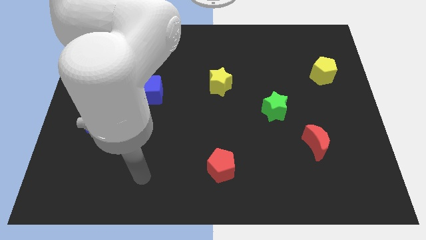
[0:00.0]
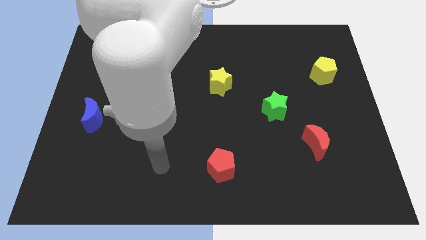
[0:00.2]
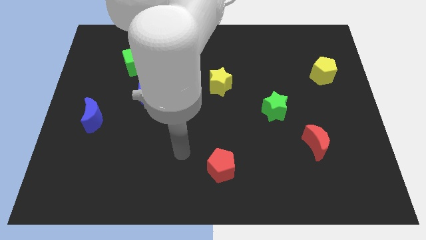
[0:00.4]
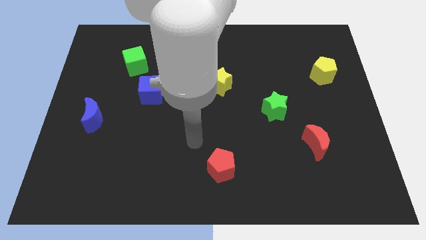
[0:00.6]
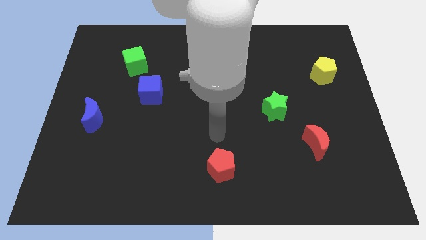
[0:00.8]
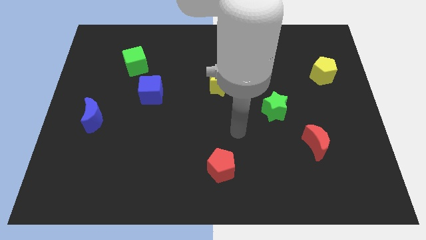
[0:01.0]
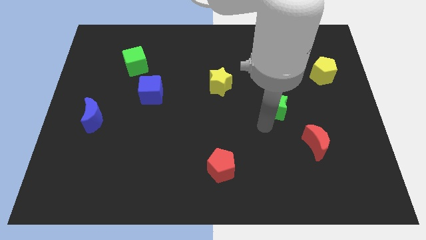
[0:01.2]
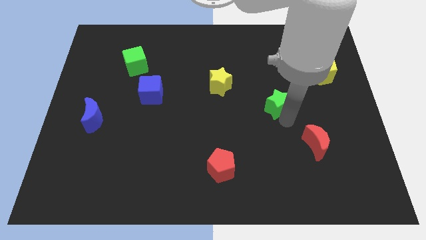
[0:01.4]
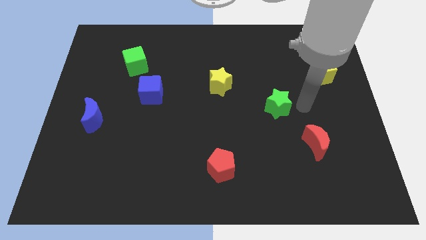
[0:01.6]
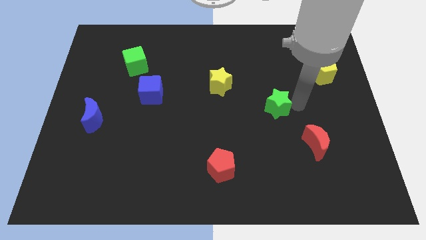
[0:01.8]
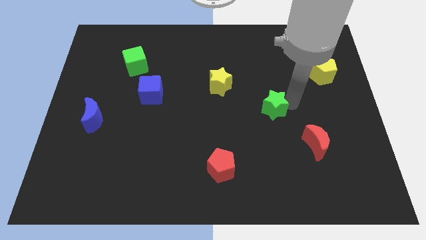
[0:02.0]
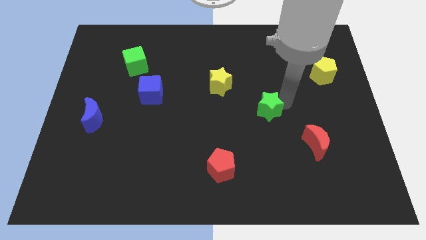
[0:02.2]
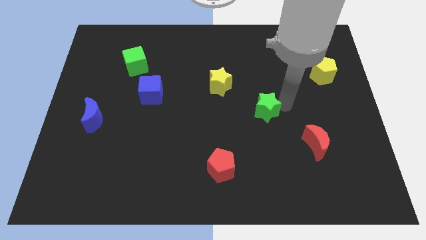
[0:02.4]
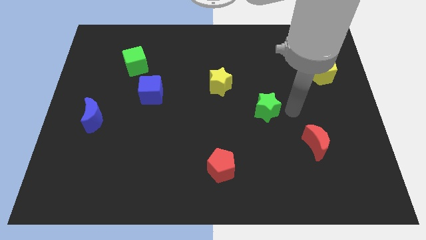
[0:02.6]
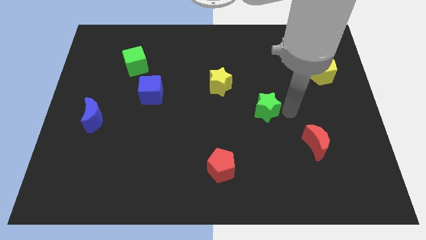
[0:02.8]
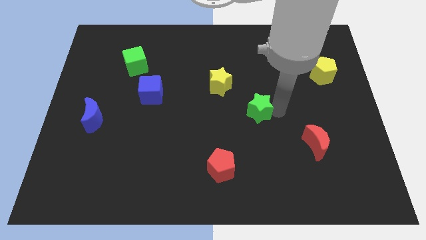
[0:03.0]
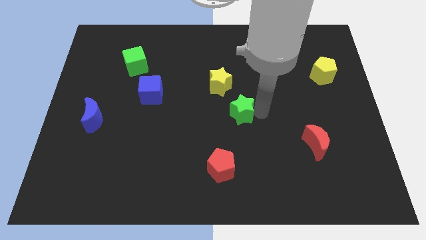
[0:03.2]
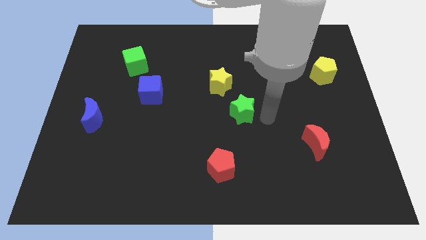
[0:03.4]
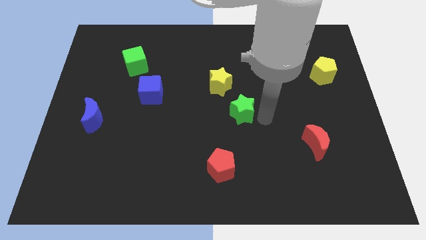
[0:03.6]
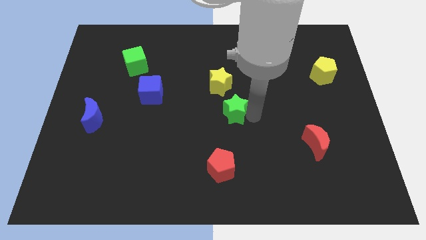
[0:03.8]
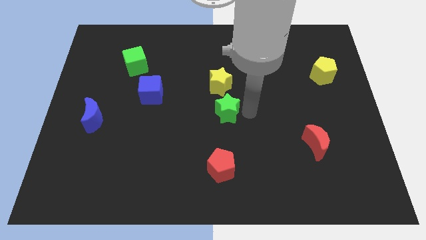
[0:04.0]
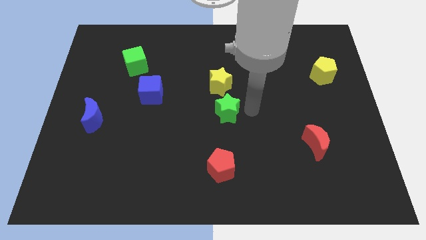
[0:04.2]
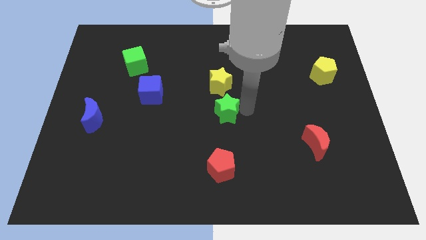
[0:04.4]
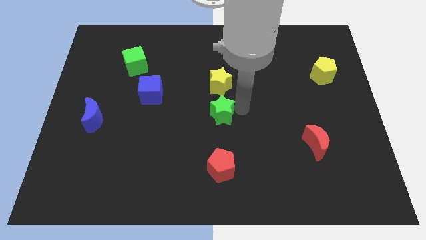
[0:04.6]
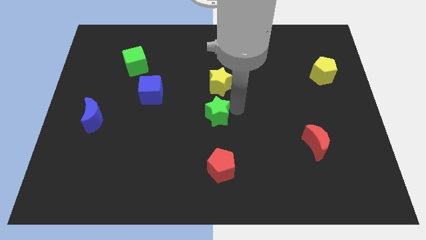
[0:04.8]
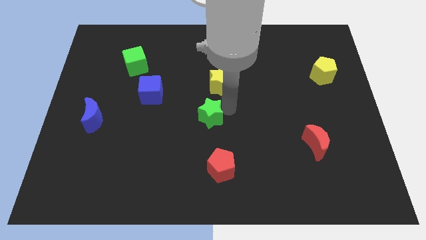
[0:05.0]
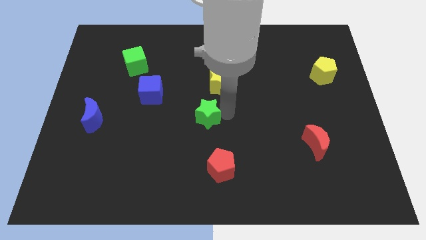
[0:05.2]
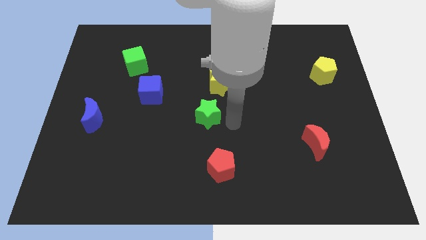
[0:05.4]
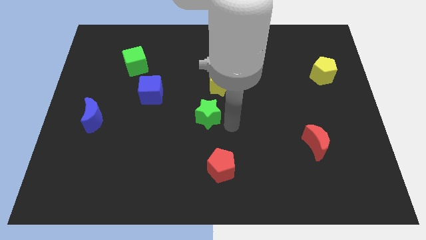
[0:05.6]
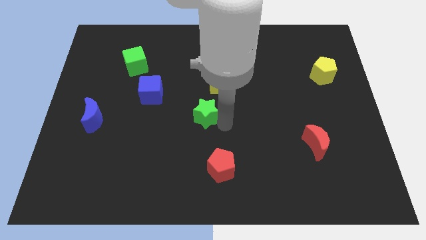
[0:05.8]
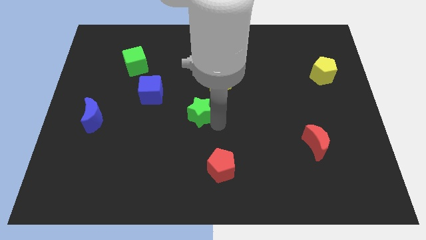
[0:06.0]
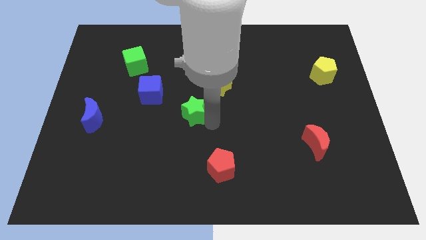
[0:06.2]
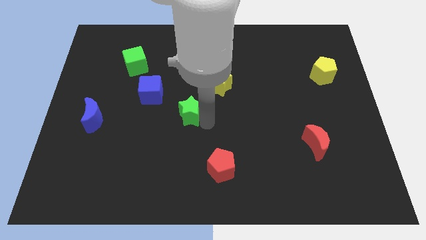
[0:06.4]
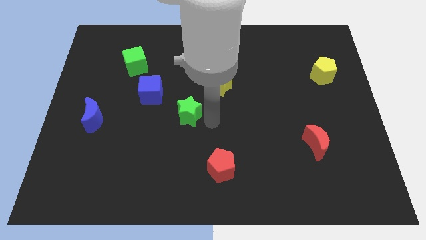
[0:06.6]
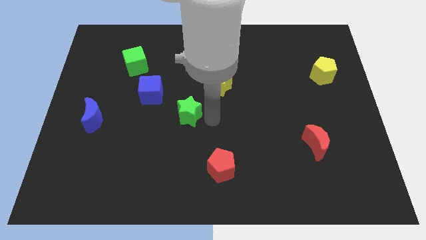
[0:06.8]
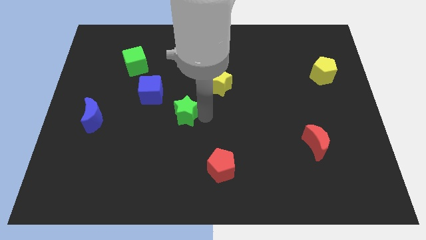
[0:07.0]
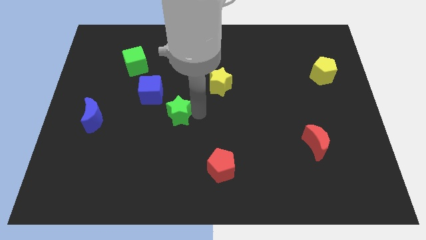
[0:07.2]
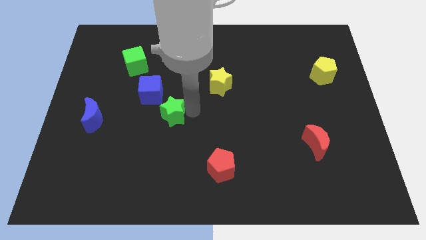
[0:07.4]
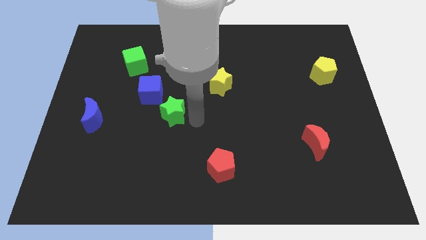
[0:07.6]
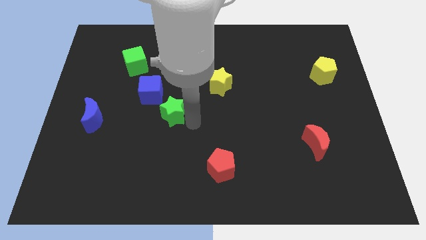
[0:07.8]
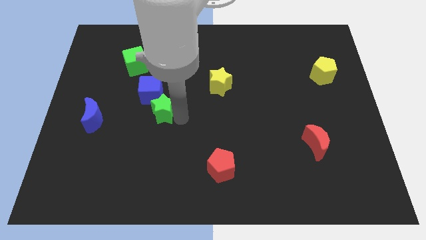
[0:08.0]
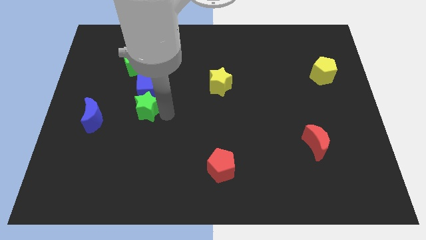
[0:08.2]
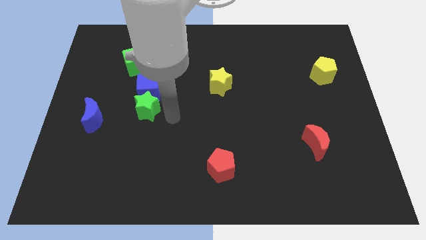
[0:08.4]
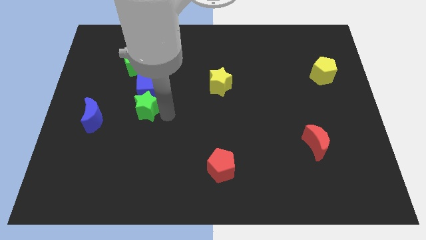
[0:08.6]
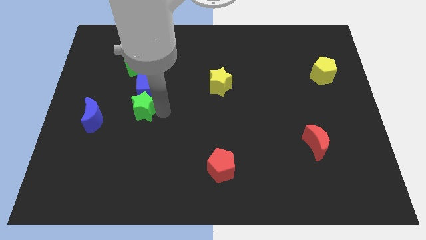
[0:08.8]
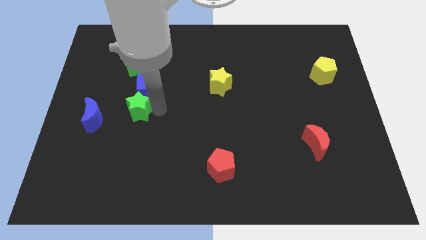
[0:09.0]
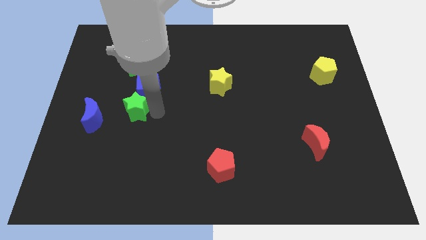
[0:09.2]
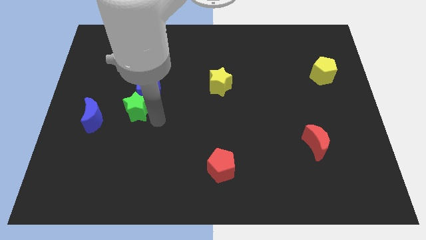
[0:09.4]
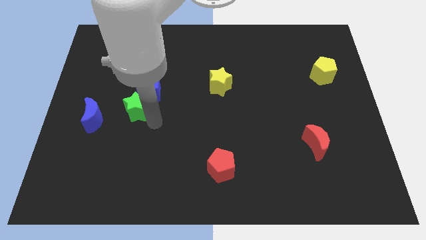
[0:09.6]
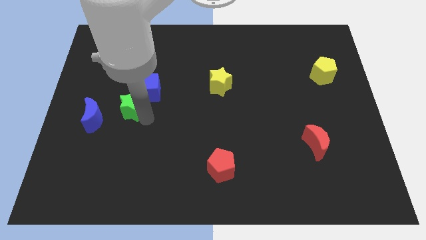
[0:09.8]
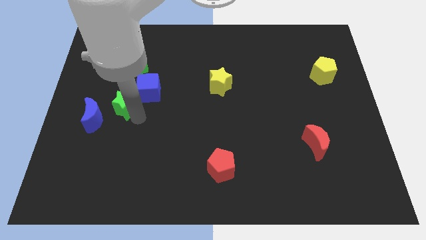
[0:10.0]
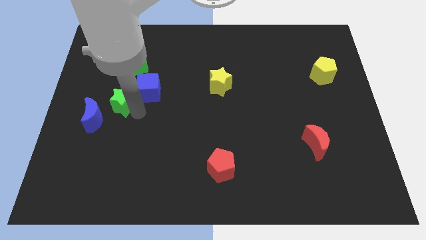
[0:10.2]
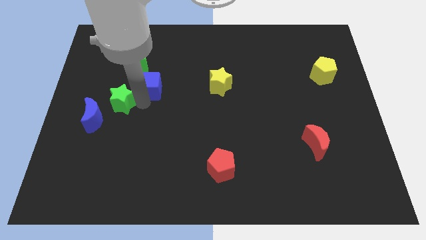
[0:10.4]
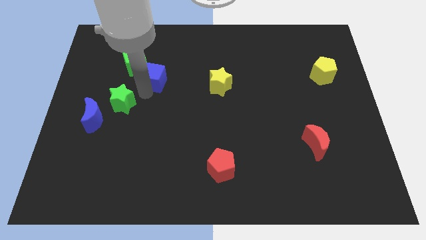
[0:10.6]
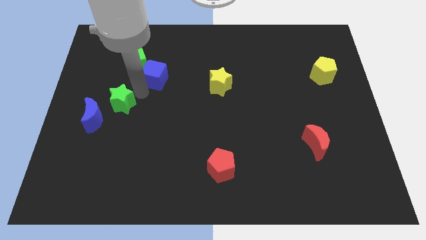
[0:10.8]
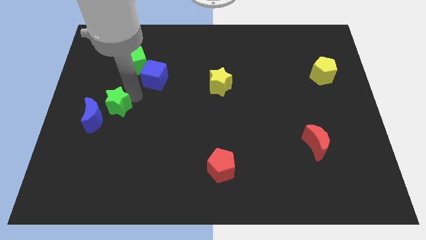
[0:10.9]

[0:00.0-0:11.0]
push the green star next to the blue moon

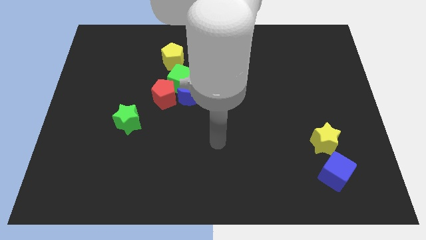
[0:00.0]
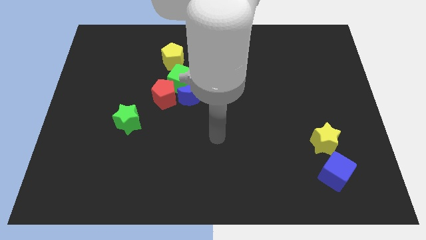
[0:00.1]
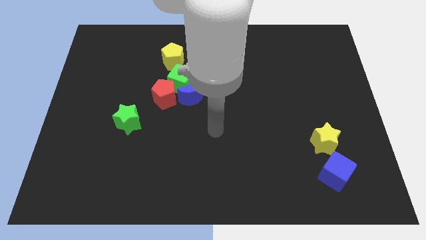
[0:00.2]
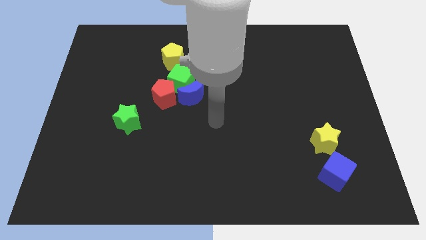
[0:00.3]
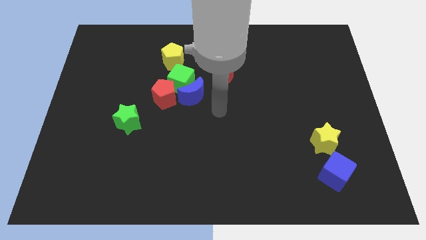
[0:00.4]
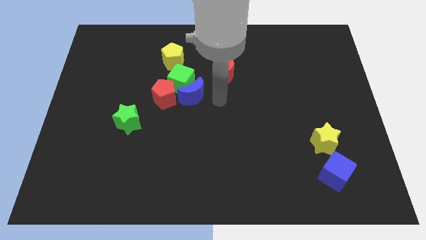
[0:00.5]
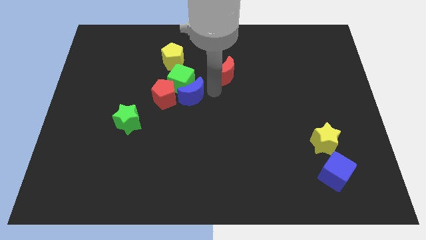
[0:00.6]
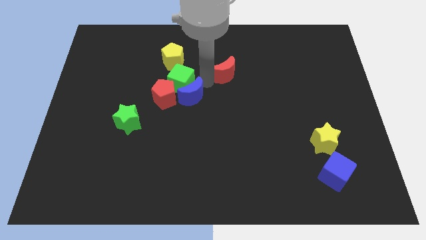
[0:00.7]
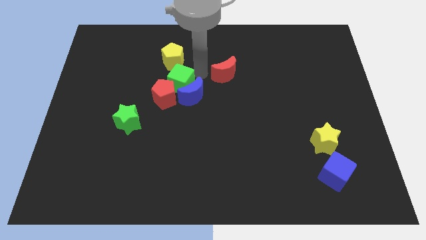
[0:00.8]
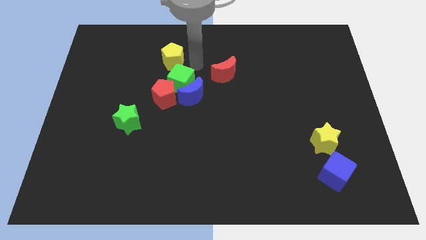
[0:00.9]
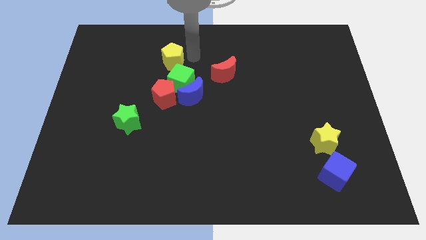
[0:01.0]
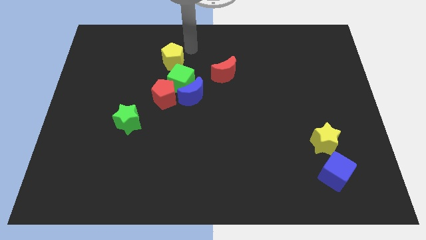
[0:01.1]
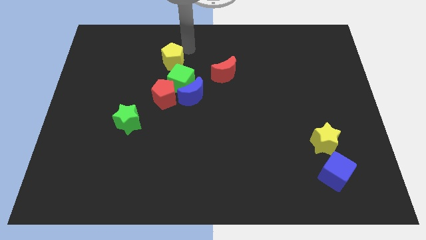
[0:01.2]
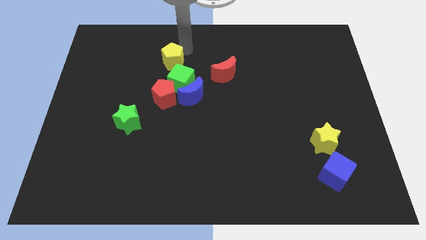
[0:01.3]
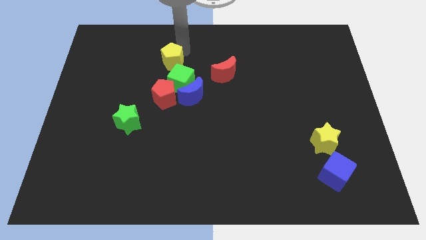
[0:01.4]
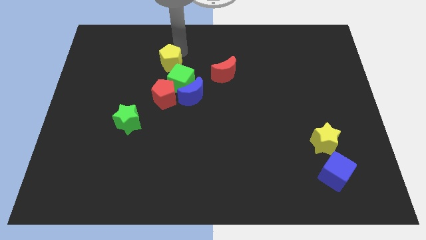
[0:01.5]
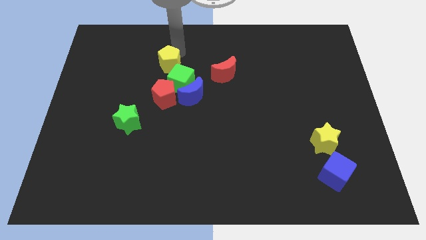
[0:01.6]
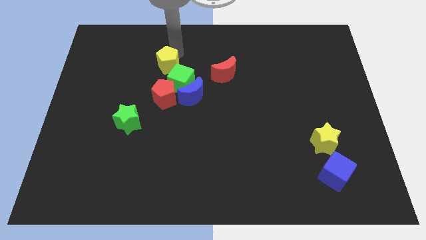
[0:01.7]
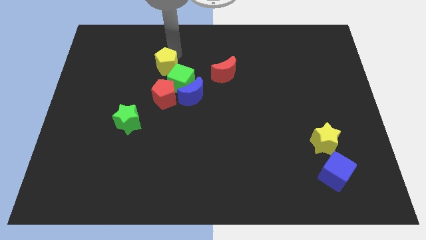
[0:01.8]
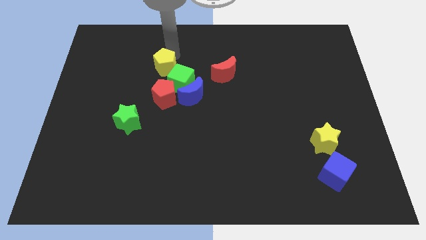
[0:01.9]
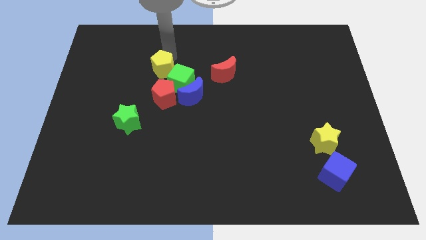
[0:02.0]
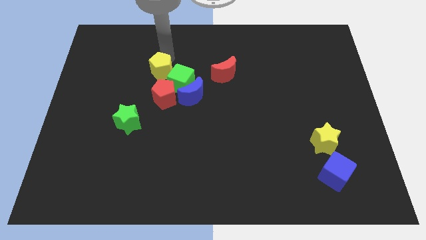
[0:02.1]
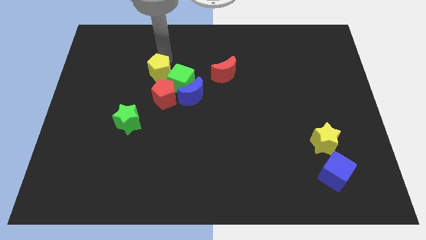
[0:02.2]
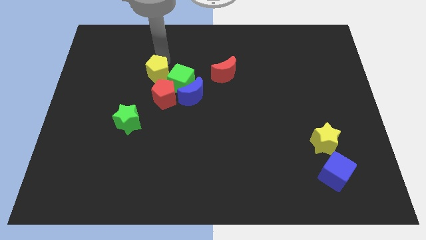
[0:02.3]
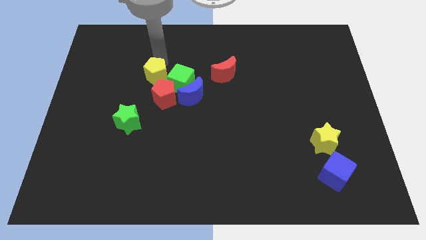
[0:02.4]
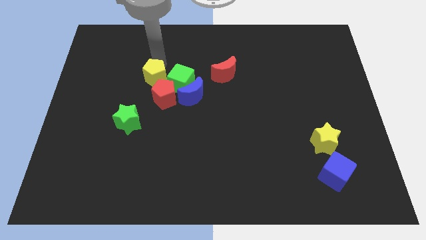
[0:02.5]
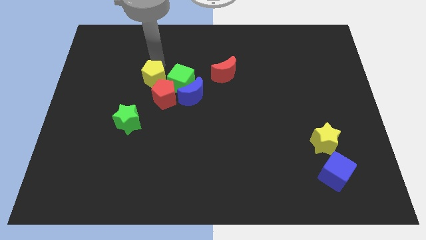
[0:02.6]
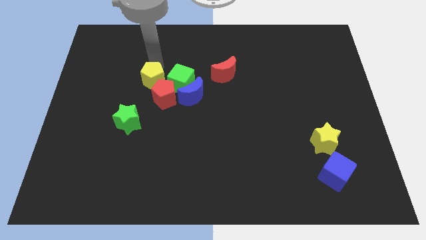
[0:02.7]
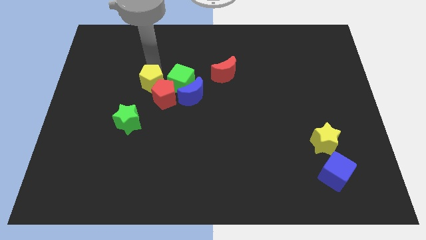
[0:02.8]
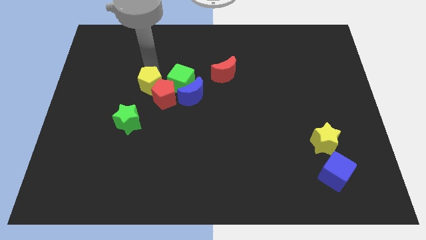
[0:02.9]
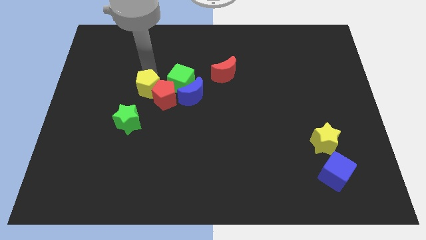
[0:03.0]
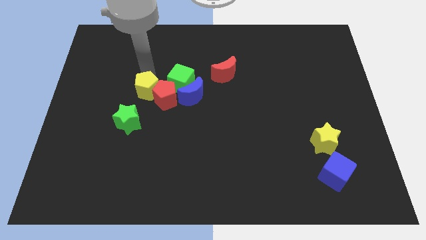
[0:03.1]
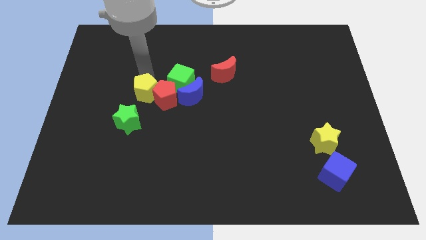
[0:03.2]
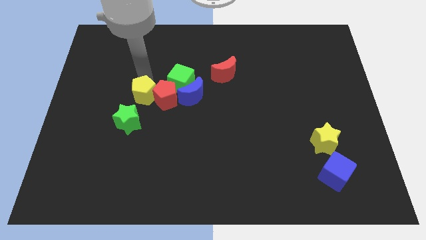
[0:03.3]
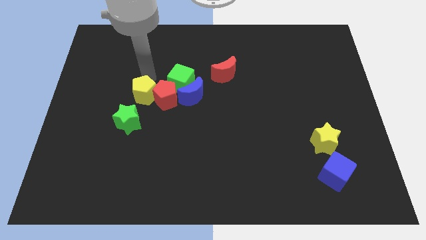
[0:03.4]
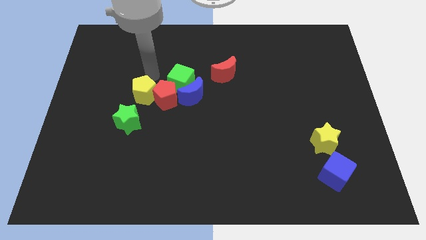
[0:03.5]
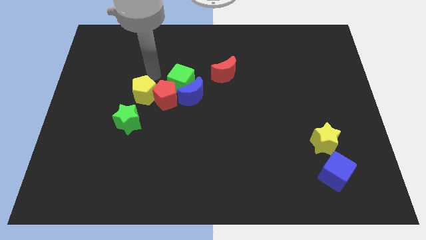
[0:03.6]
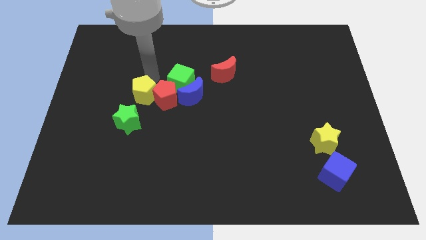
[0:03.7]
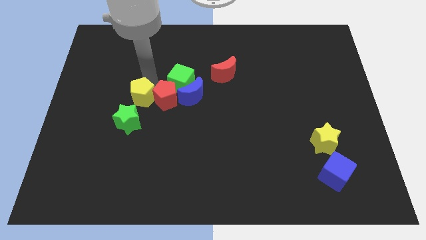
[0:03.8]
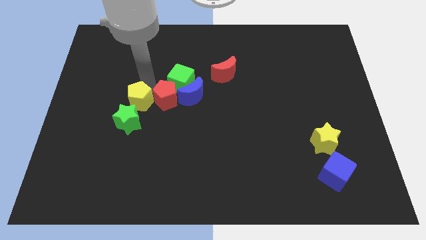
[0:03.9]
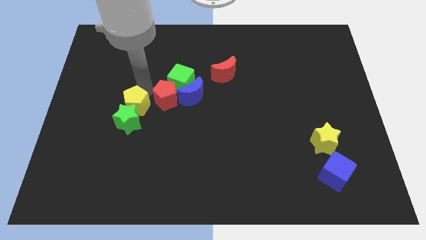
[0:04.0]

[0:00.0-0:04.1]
slide the yellow pentagon to the green star
